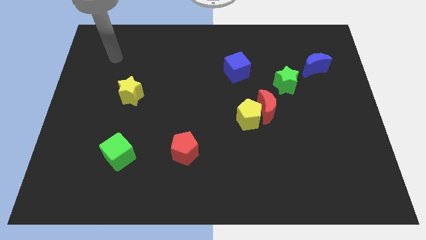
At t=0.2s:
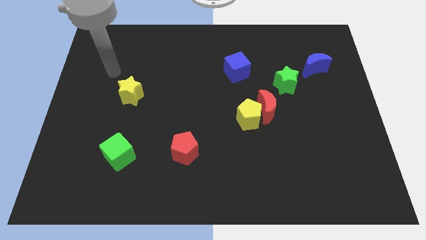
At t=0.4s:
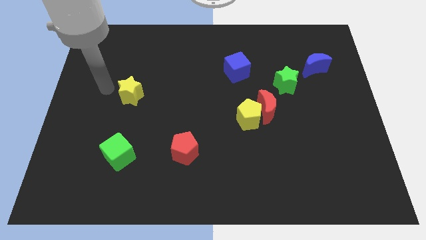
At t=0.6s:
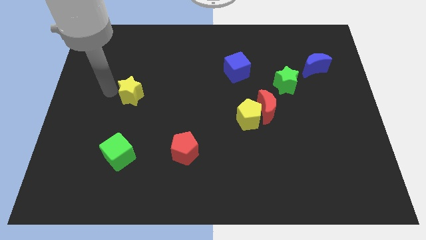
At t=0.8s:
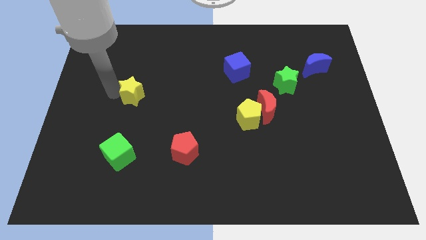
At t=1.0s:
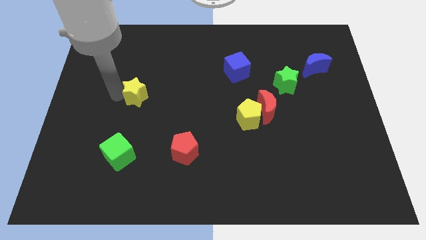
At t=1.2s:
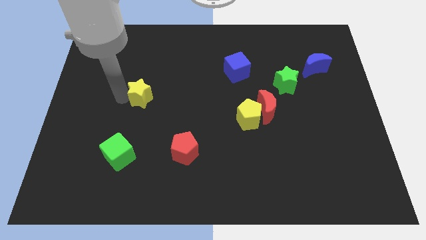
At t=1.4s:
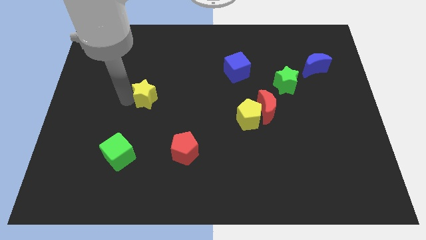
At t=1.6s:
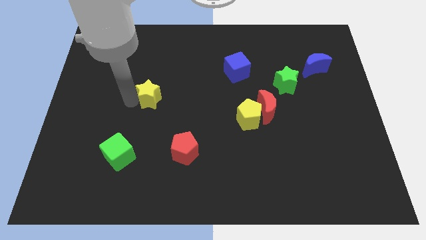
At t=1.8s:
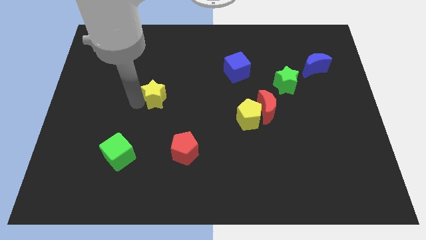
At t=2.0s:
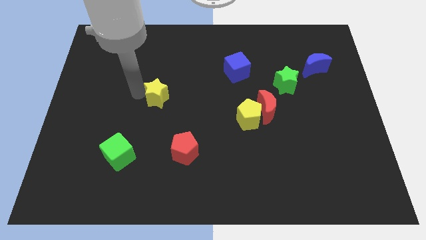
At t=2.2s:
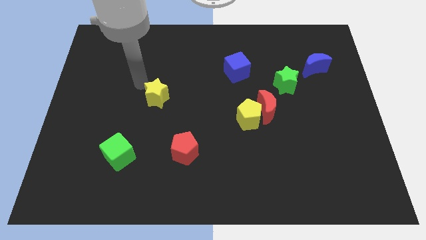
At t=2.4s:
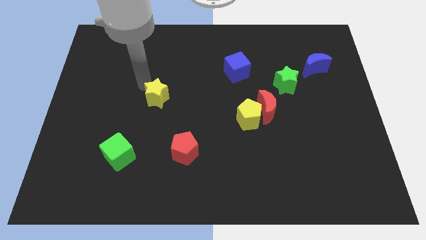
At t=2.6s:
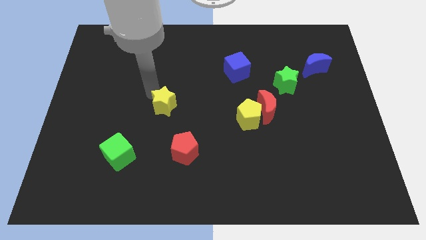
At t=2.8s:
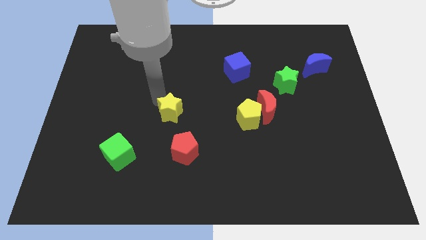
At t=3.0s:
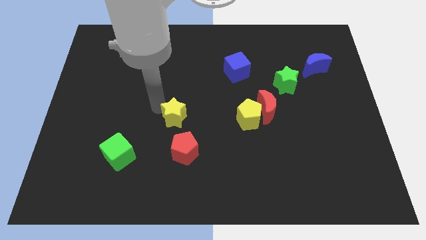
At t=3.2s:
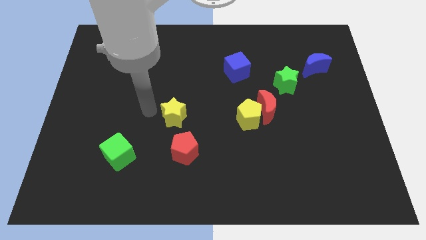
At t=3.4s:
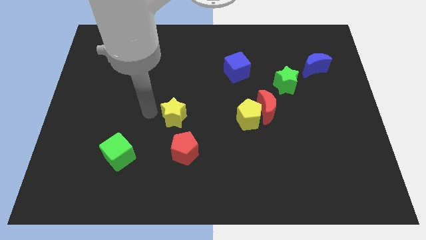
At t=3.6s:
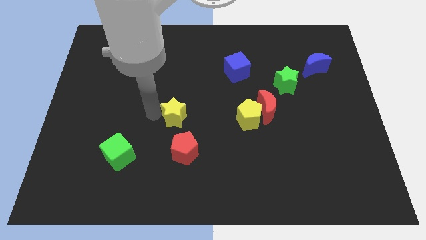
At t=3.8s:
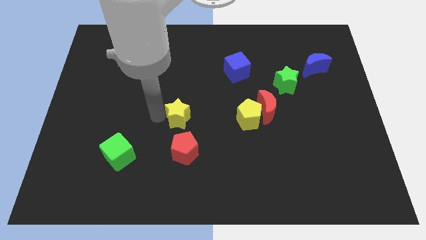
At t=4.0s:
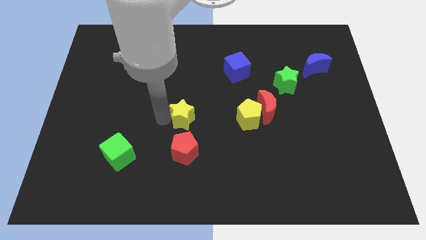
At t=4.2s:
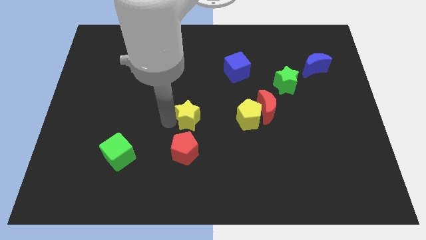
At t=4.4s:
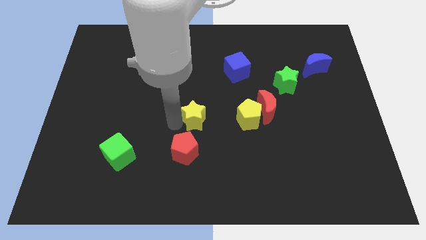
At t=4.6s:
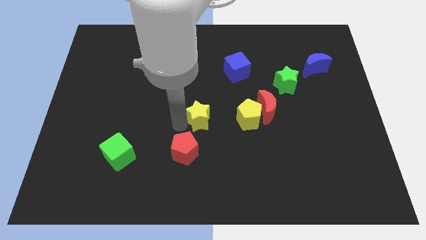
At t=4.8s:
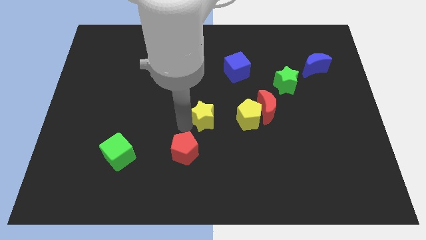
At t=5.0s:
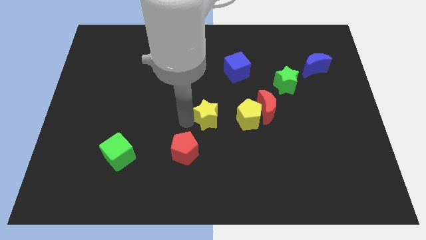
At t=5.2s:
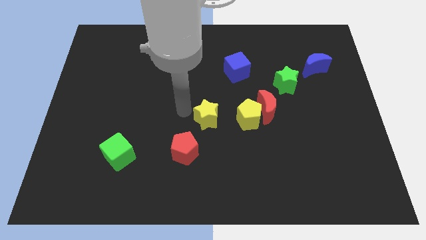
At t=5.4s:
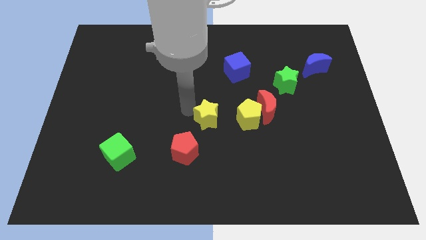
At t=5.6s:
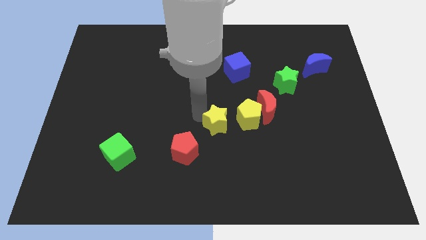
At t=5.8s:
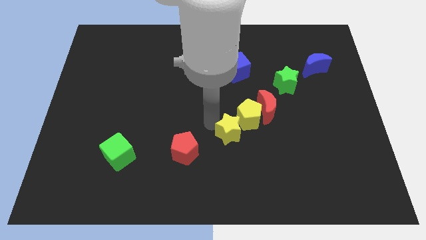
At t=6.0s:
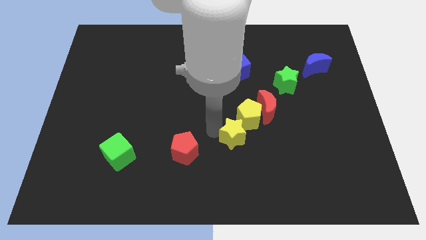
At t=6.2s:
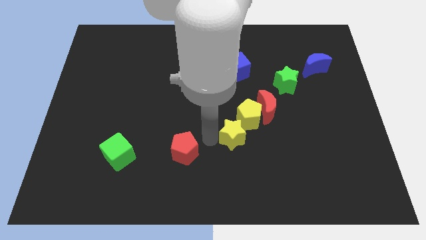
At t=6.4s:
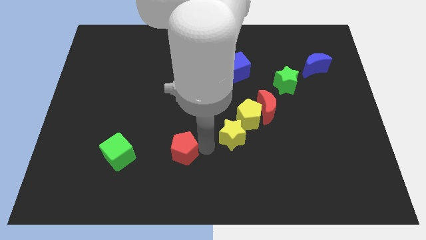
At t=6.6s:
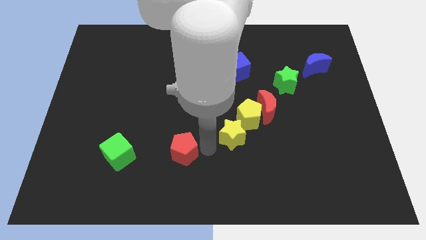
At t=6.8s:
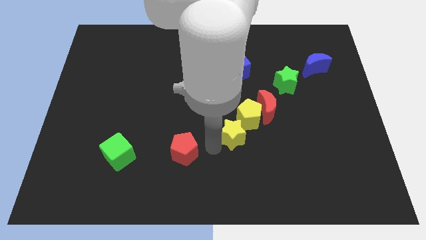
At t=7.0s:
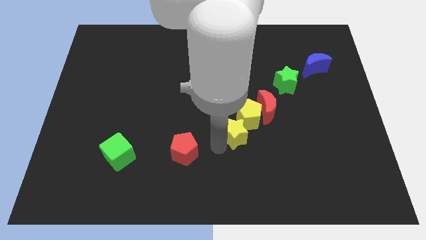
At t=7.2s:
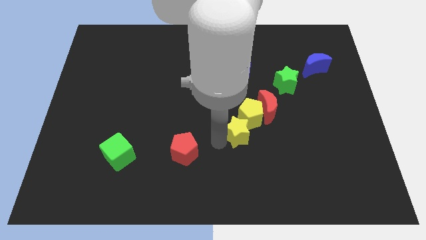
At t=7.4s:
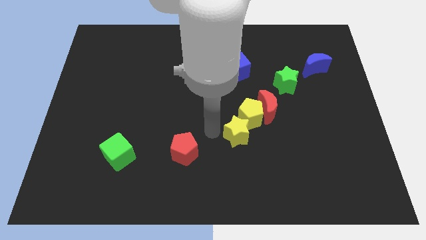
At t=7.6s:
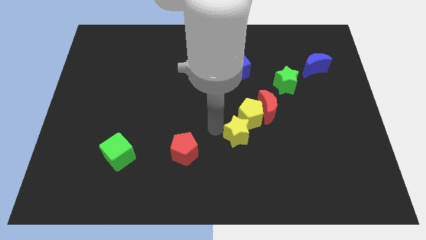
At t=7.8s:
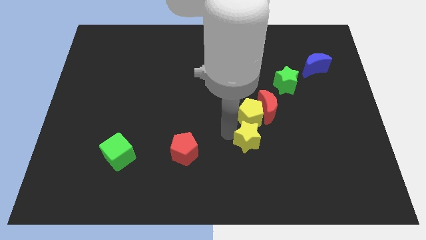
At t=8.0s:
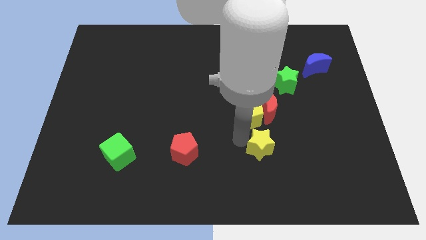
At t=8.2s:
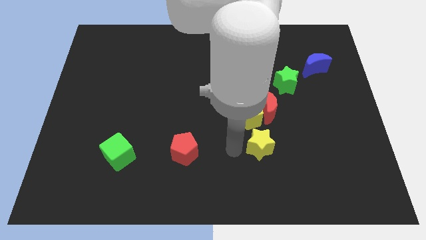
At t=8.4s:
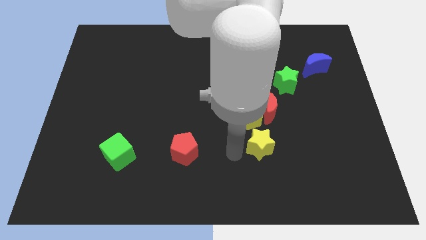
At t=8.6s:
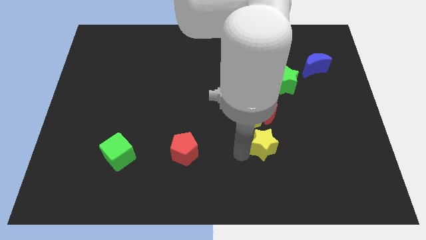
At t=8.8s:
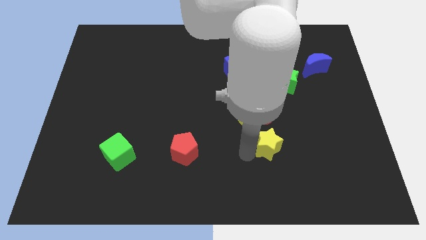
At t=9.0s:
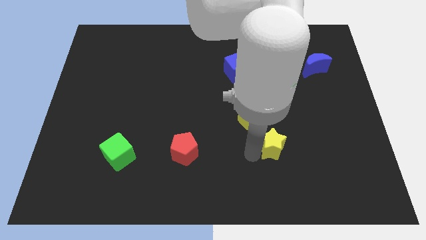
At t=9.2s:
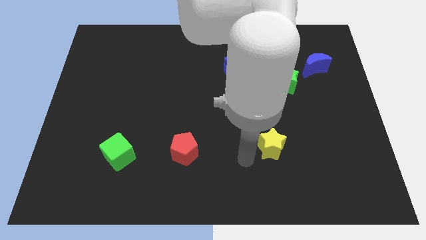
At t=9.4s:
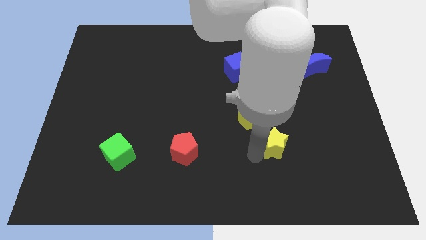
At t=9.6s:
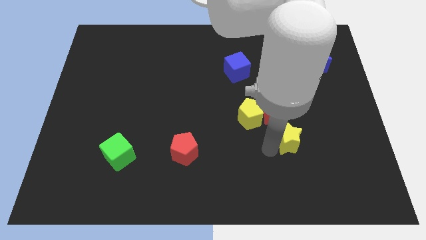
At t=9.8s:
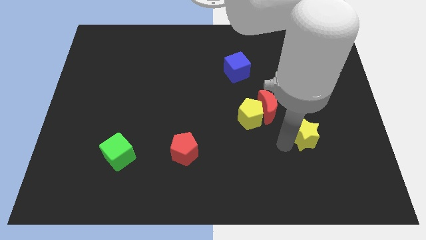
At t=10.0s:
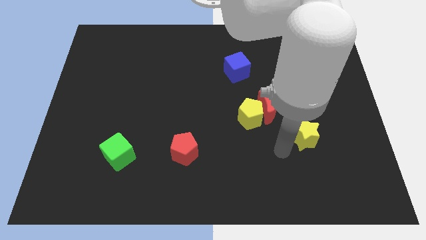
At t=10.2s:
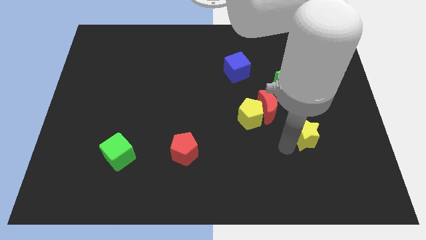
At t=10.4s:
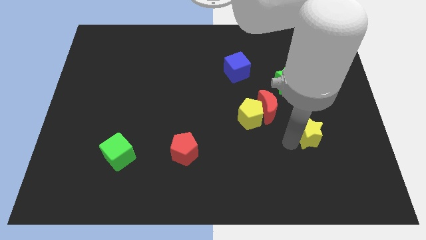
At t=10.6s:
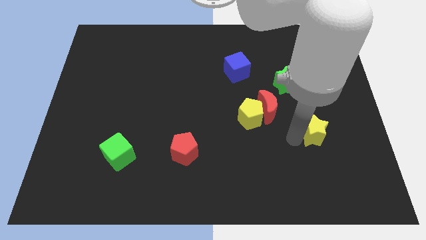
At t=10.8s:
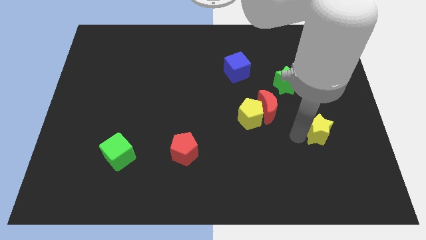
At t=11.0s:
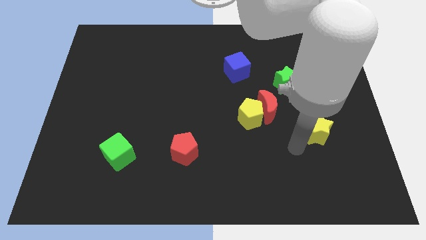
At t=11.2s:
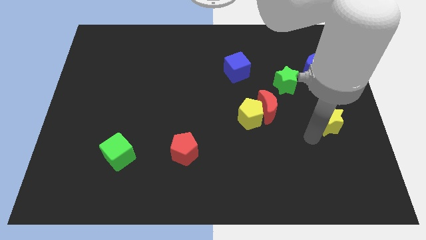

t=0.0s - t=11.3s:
push the yellow star to the center right

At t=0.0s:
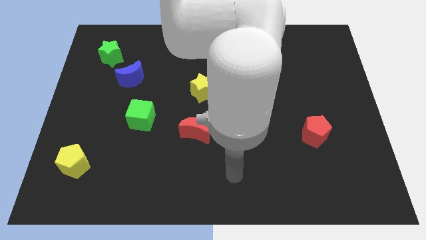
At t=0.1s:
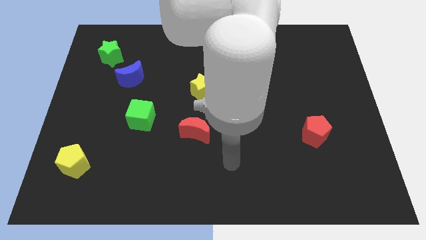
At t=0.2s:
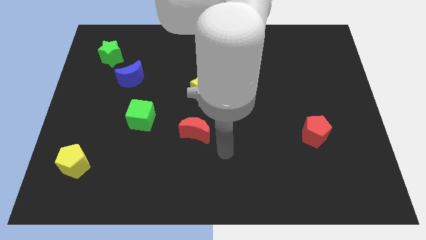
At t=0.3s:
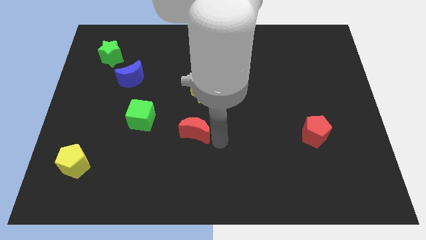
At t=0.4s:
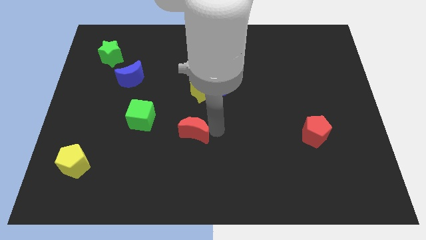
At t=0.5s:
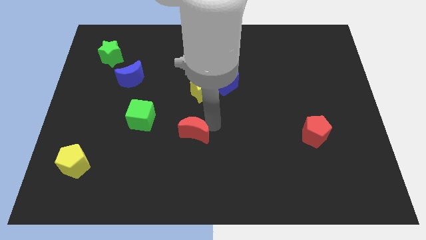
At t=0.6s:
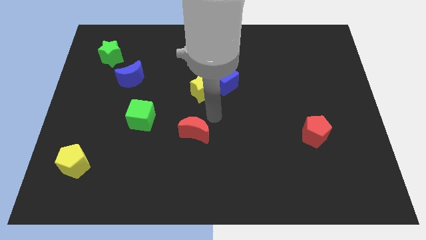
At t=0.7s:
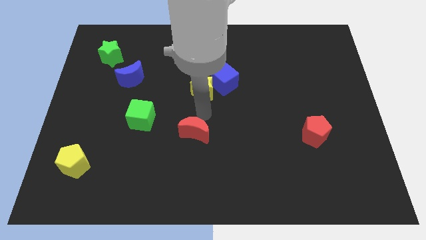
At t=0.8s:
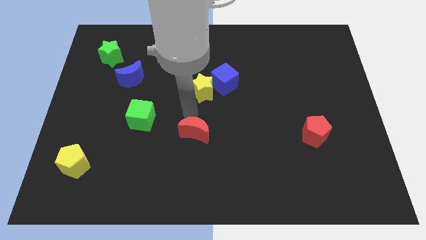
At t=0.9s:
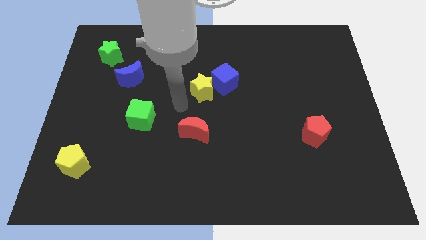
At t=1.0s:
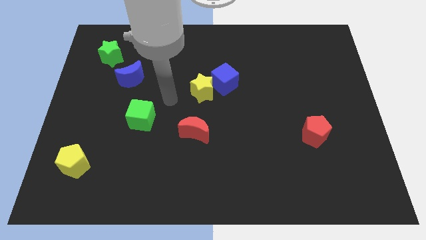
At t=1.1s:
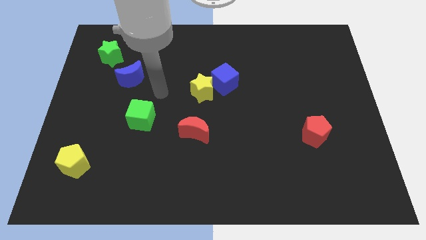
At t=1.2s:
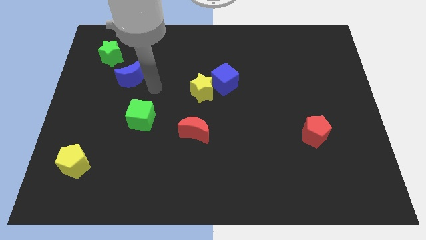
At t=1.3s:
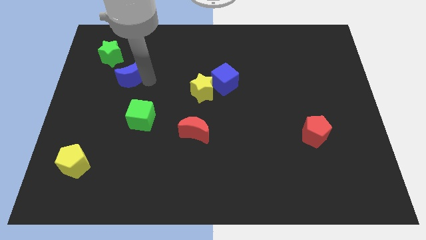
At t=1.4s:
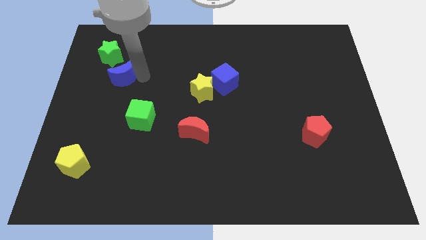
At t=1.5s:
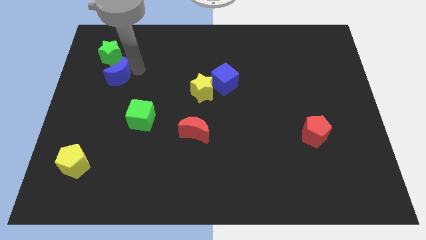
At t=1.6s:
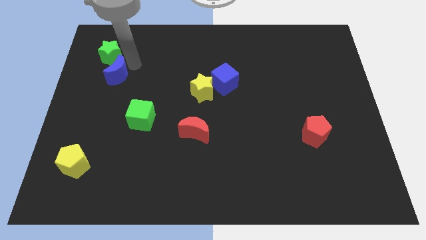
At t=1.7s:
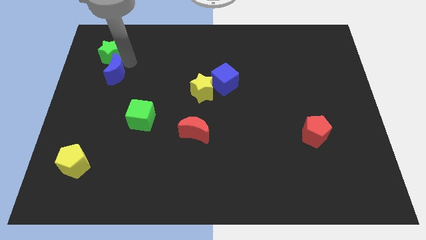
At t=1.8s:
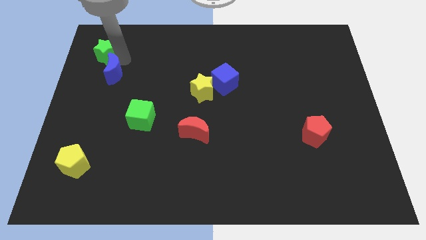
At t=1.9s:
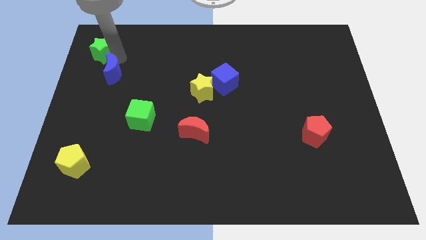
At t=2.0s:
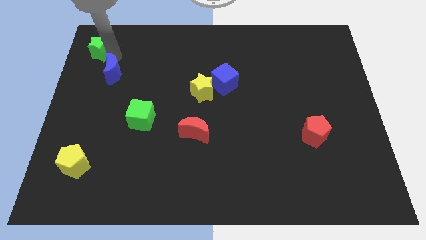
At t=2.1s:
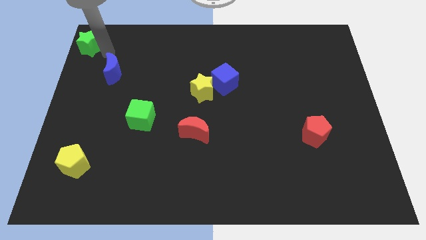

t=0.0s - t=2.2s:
push the green star to the top left
